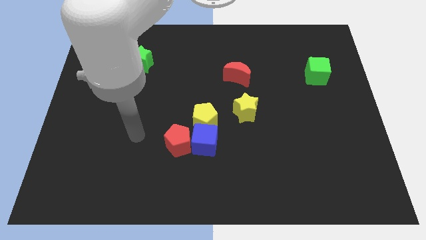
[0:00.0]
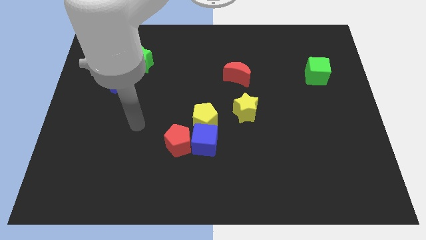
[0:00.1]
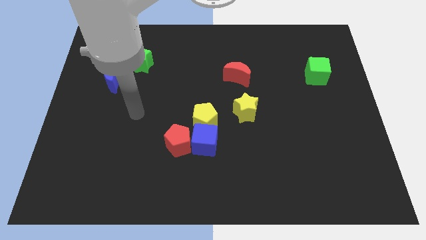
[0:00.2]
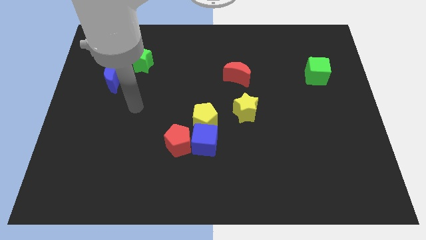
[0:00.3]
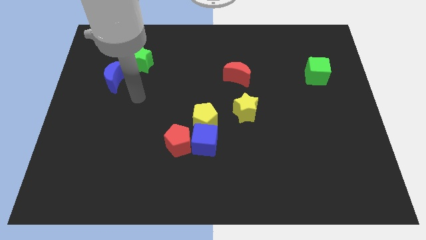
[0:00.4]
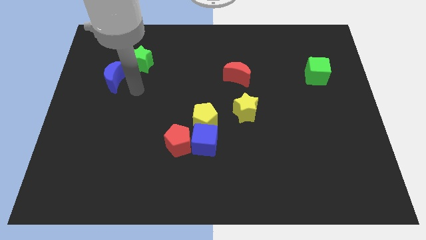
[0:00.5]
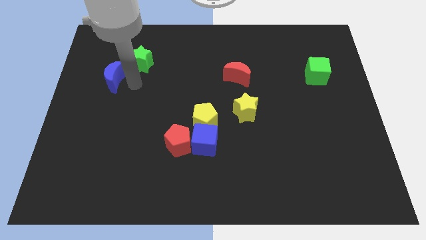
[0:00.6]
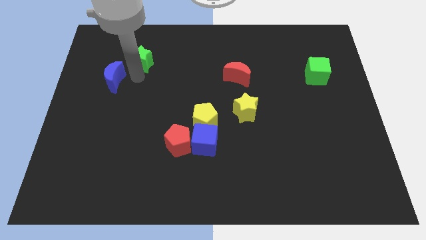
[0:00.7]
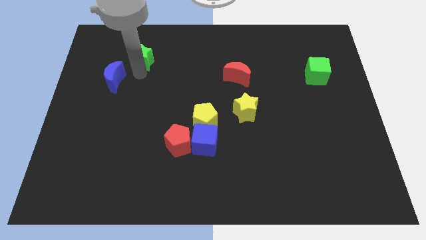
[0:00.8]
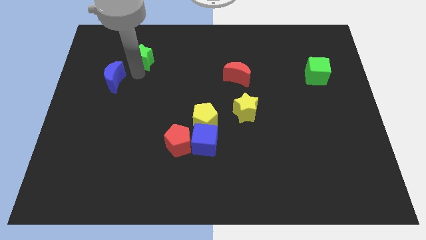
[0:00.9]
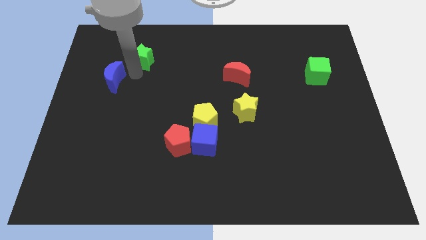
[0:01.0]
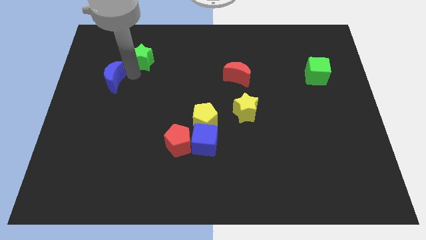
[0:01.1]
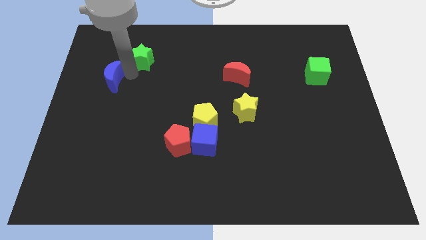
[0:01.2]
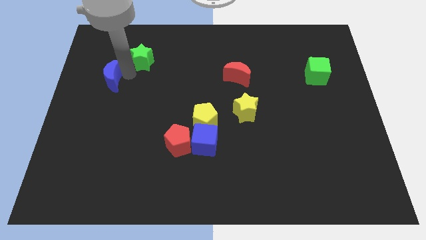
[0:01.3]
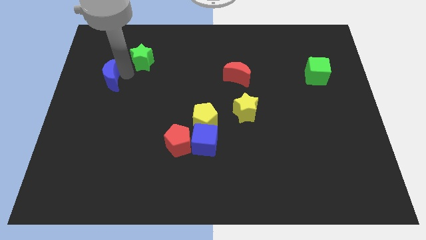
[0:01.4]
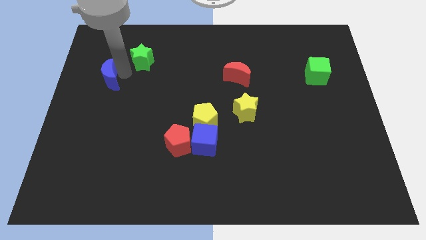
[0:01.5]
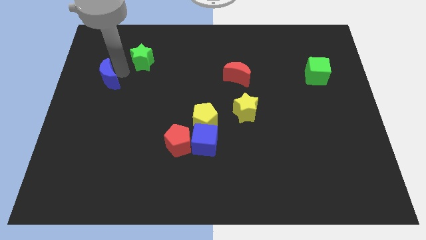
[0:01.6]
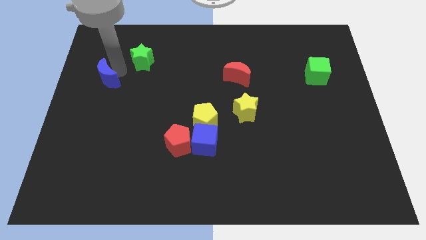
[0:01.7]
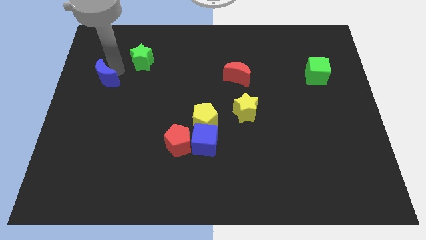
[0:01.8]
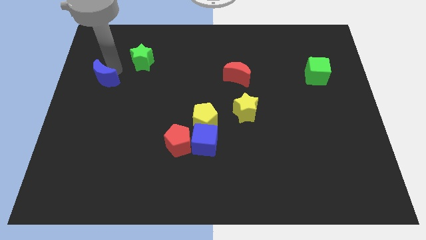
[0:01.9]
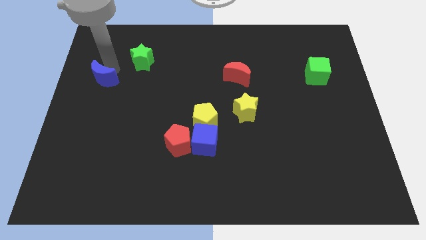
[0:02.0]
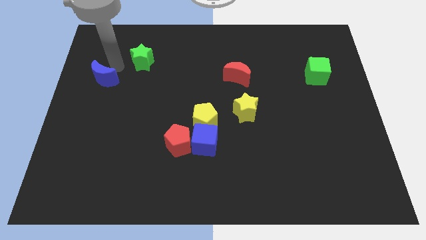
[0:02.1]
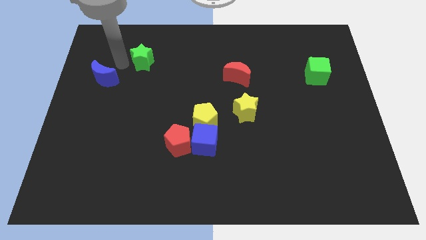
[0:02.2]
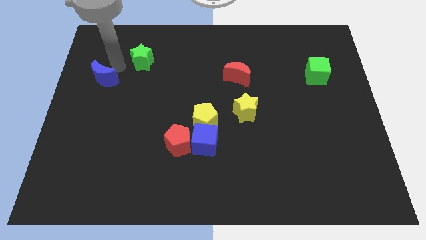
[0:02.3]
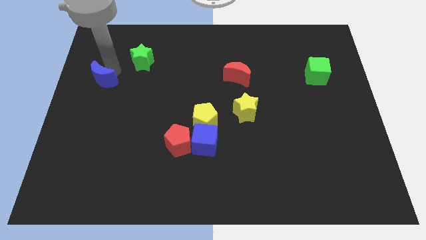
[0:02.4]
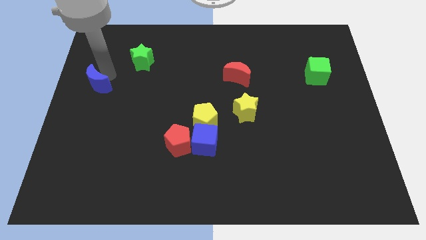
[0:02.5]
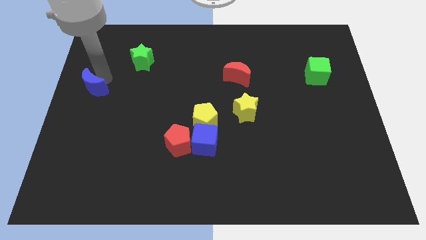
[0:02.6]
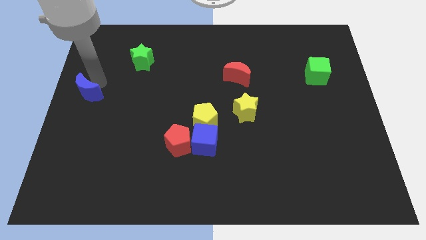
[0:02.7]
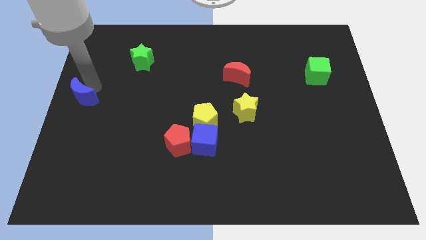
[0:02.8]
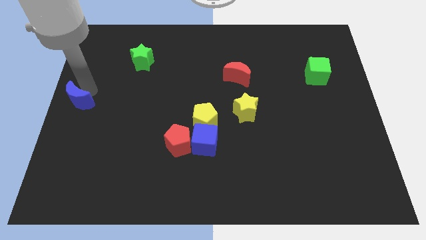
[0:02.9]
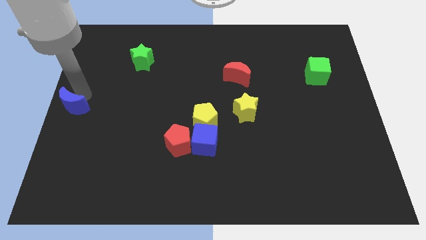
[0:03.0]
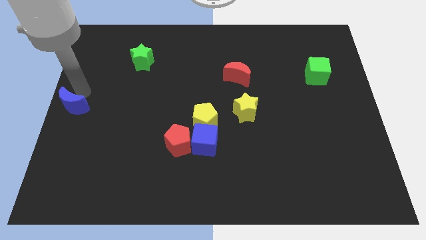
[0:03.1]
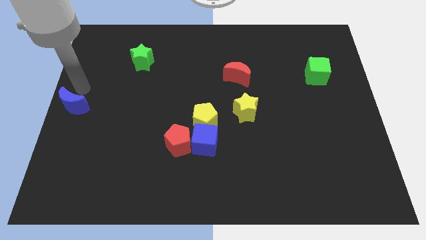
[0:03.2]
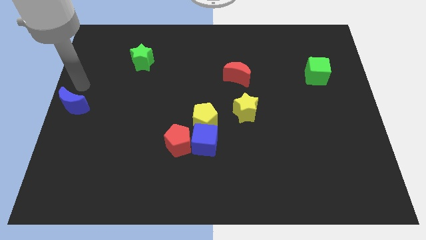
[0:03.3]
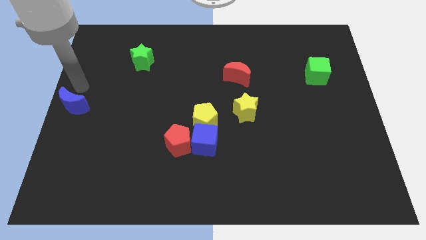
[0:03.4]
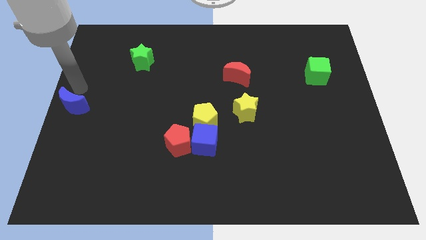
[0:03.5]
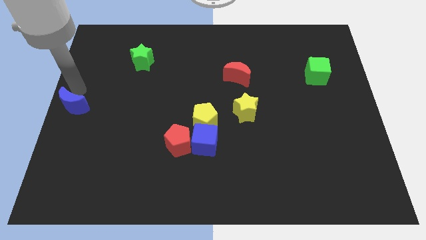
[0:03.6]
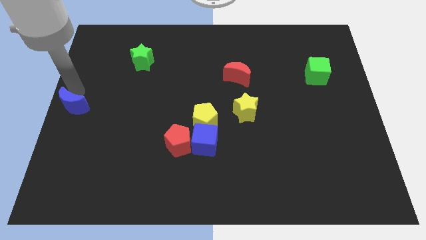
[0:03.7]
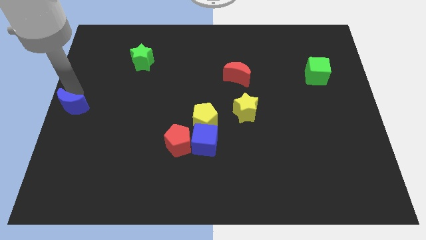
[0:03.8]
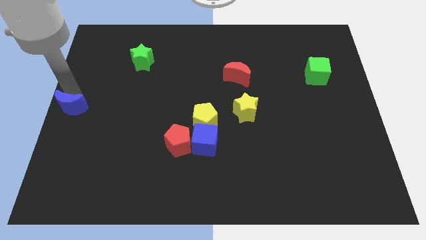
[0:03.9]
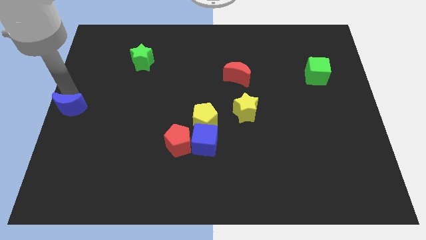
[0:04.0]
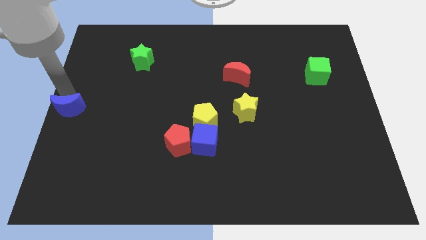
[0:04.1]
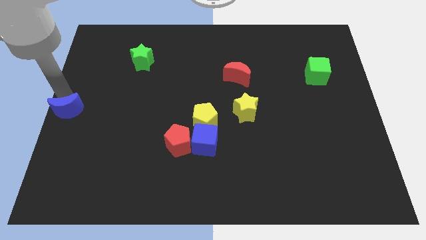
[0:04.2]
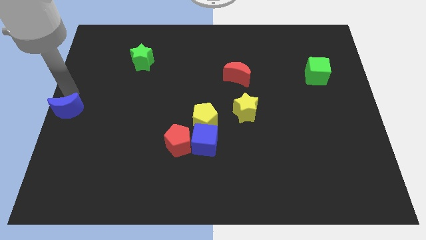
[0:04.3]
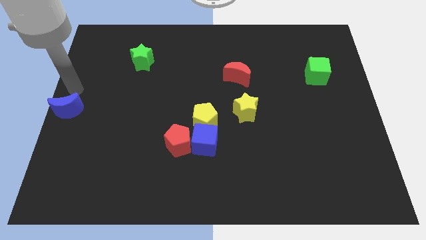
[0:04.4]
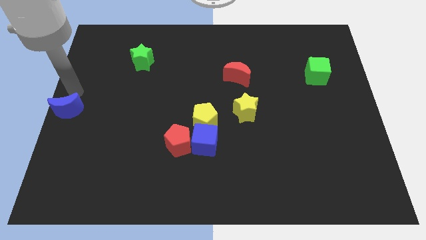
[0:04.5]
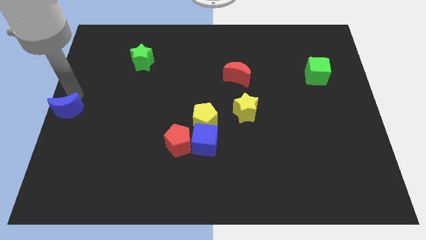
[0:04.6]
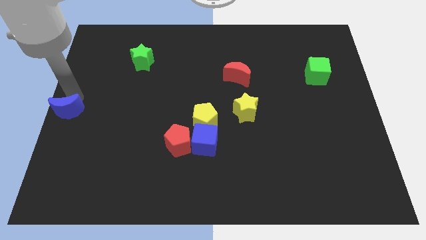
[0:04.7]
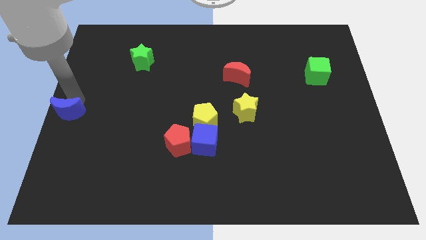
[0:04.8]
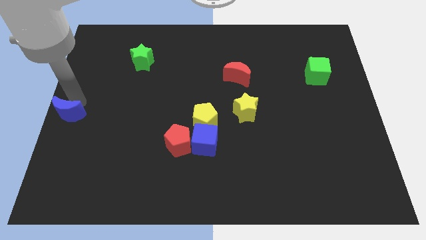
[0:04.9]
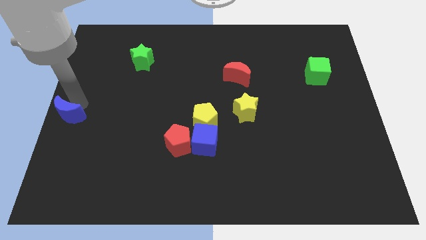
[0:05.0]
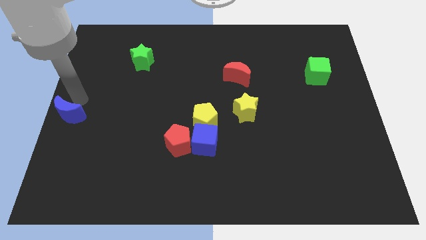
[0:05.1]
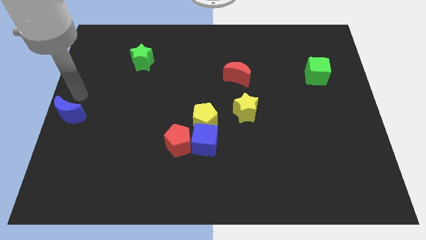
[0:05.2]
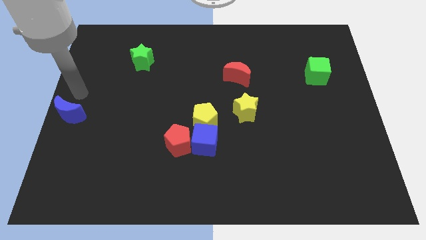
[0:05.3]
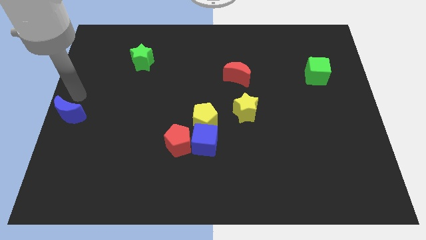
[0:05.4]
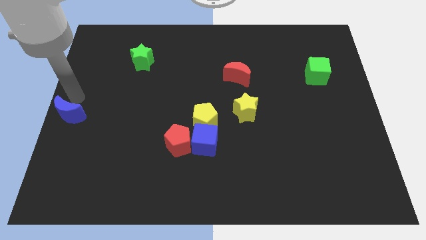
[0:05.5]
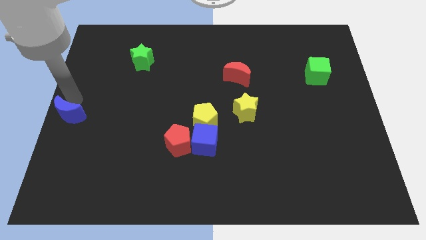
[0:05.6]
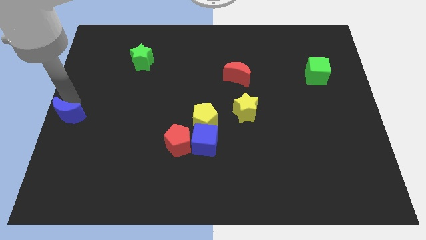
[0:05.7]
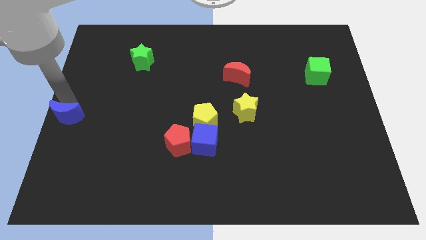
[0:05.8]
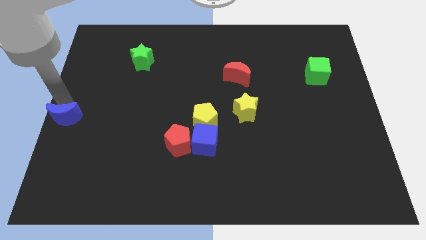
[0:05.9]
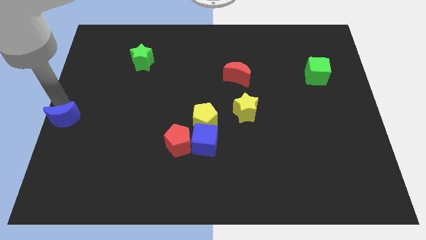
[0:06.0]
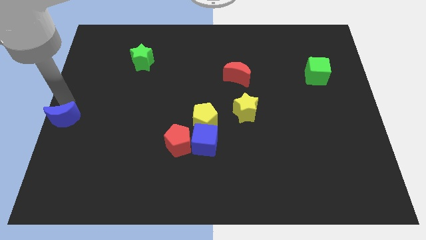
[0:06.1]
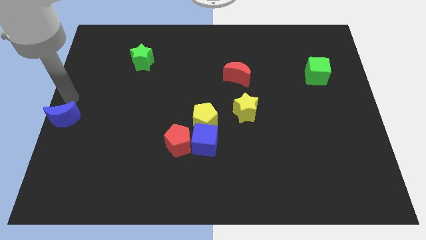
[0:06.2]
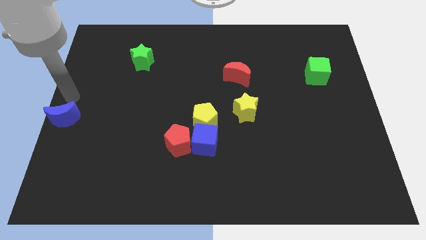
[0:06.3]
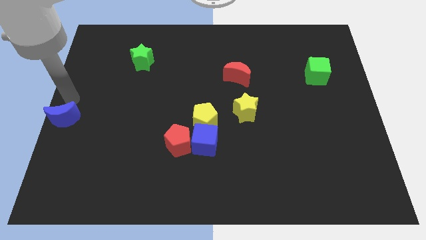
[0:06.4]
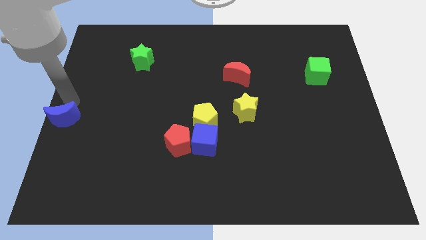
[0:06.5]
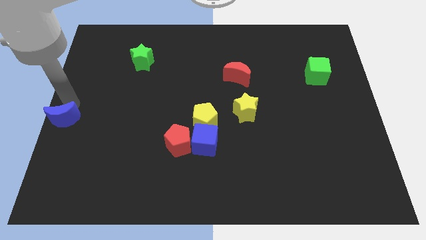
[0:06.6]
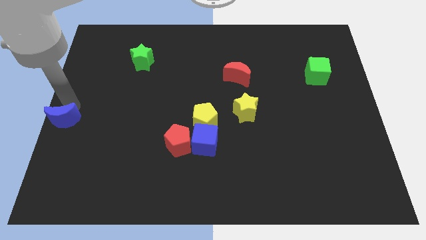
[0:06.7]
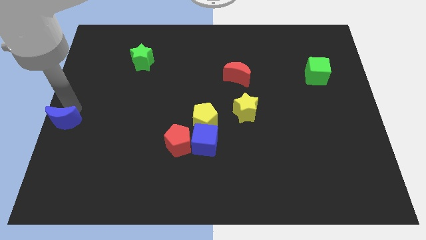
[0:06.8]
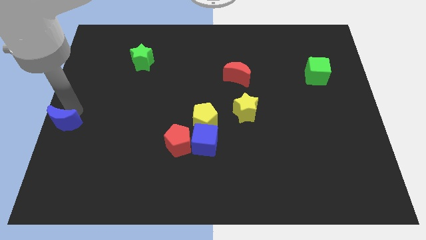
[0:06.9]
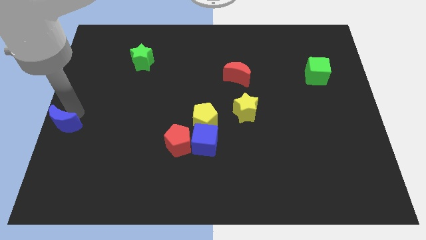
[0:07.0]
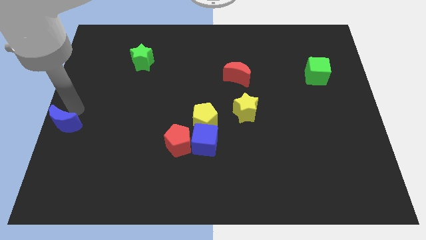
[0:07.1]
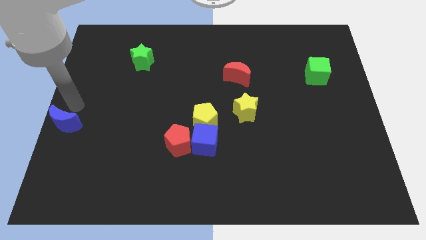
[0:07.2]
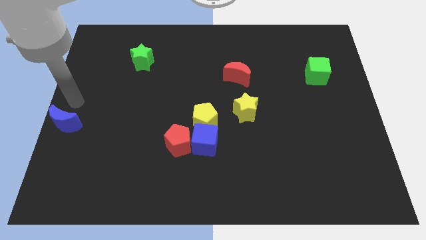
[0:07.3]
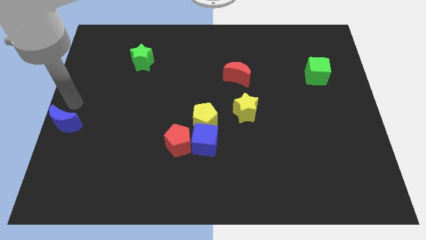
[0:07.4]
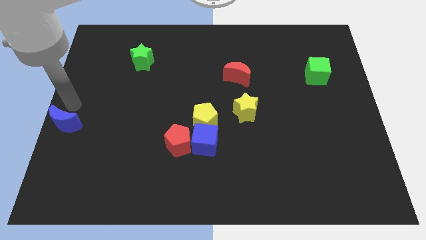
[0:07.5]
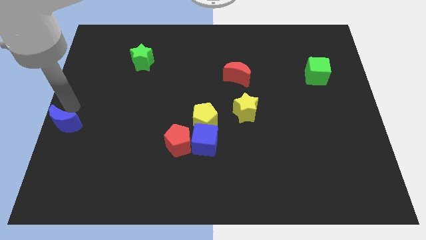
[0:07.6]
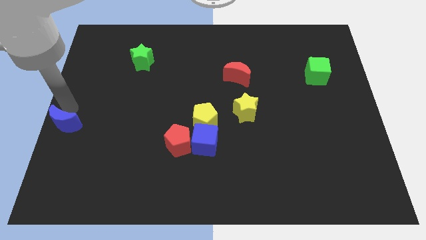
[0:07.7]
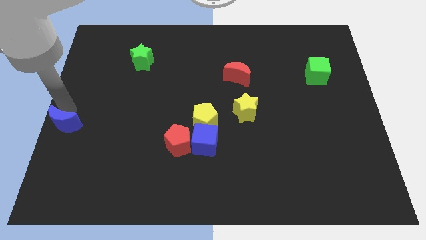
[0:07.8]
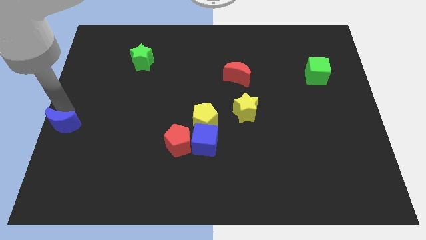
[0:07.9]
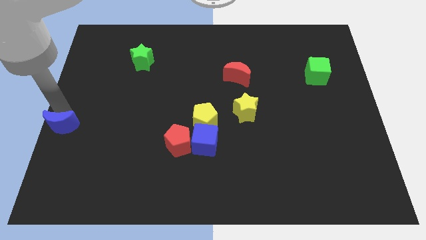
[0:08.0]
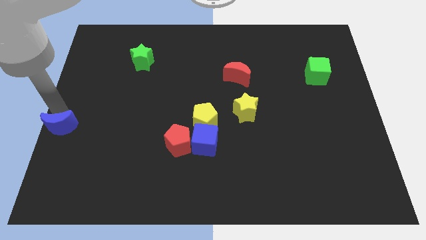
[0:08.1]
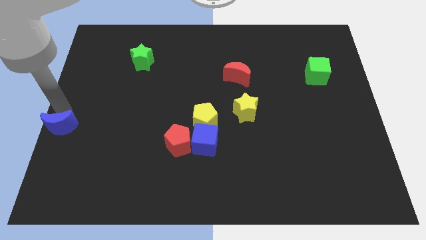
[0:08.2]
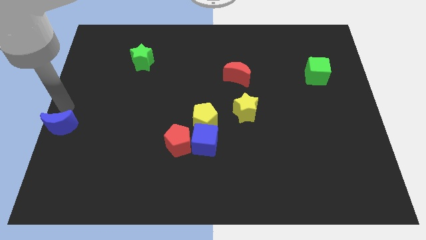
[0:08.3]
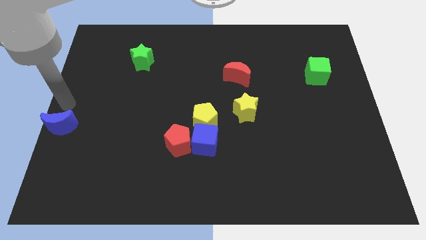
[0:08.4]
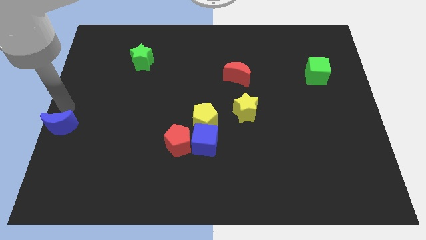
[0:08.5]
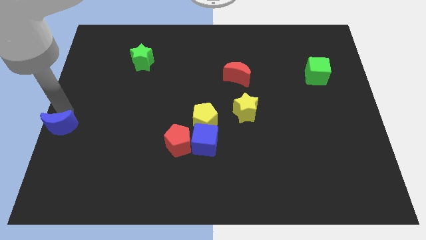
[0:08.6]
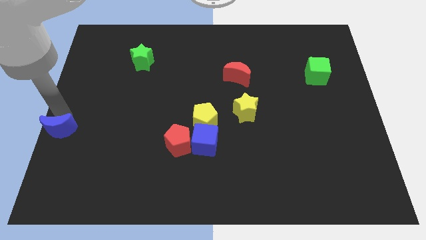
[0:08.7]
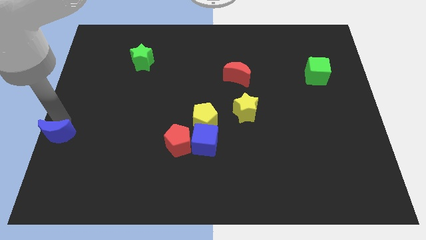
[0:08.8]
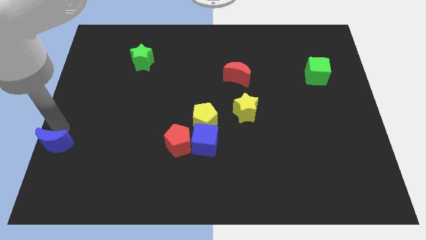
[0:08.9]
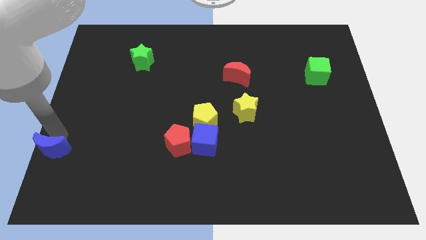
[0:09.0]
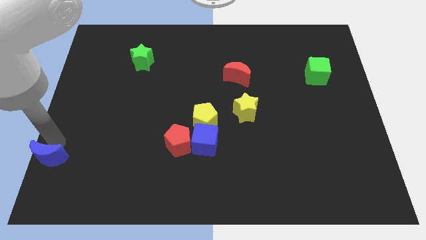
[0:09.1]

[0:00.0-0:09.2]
push the blue moon to the bottom left of the board
